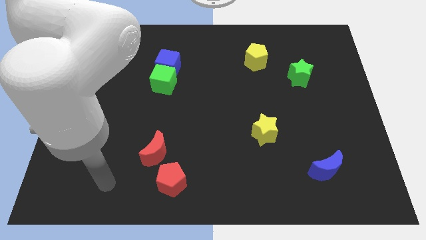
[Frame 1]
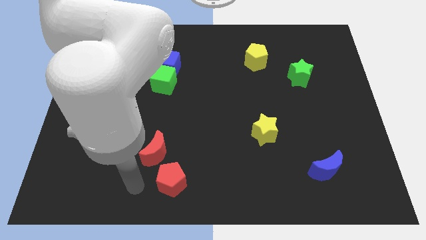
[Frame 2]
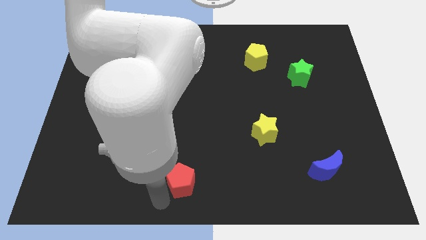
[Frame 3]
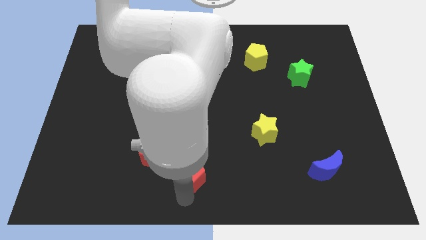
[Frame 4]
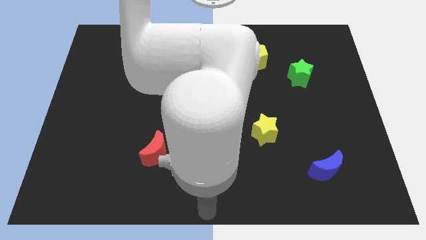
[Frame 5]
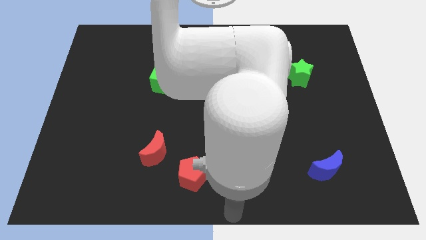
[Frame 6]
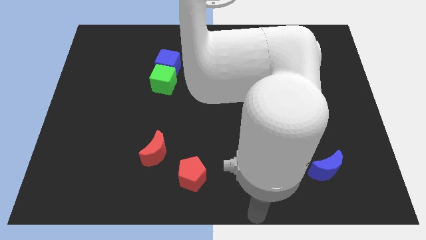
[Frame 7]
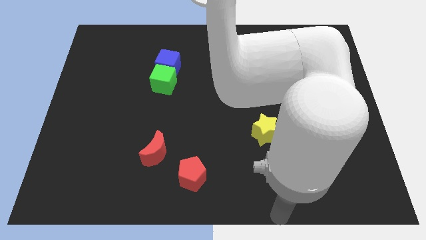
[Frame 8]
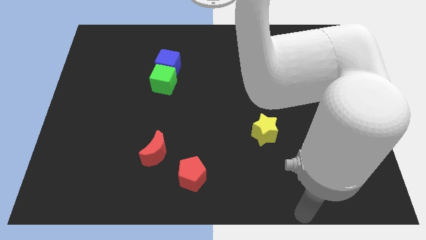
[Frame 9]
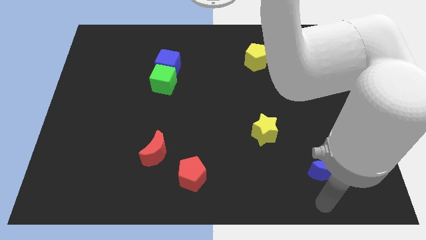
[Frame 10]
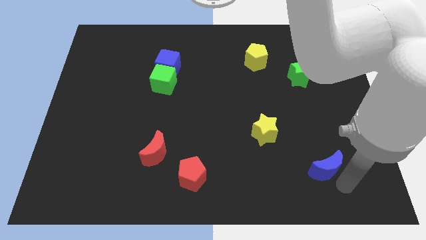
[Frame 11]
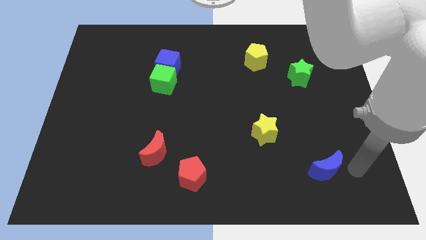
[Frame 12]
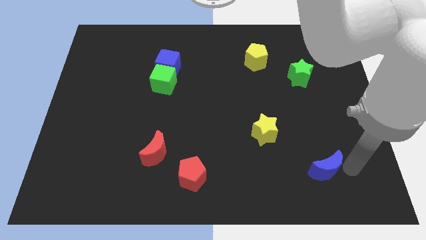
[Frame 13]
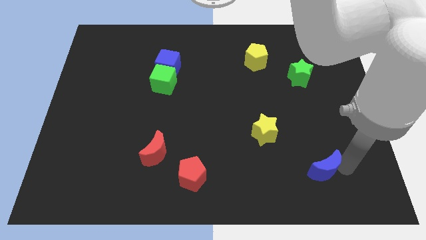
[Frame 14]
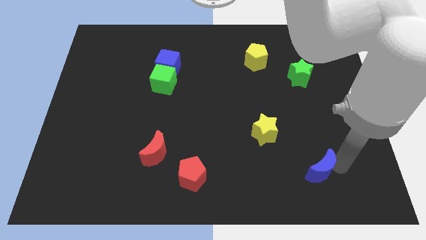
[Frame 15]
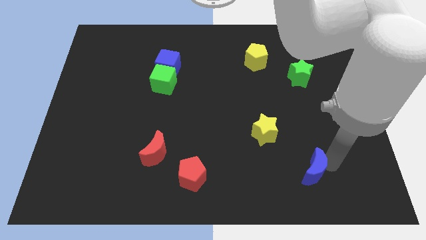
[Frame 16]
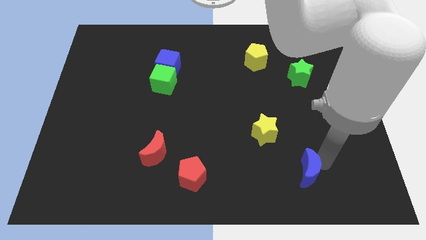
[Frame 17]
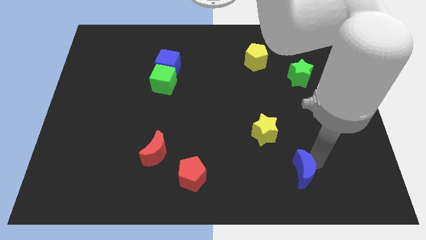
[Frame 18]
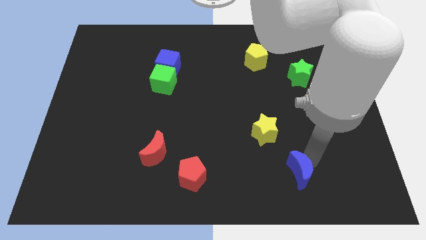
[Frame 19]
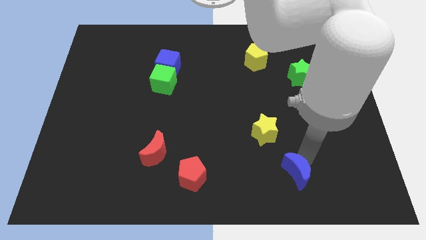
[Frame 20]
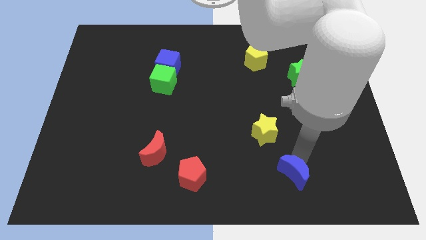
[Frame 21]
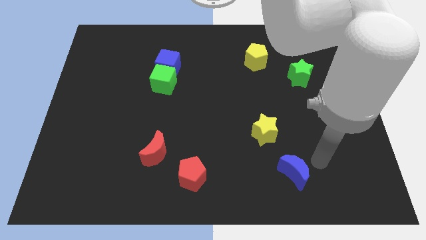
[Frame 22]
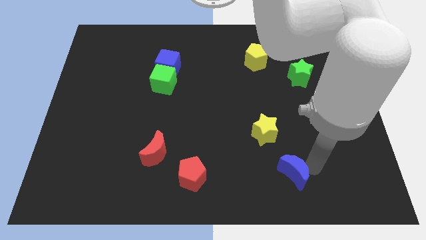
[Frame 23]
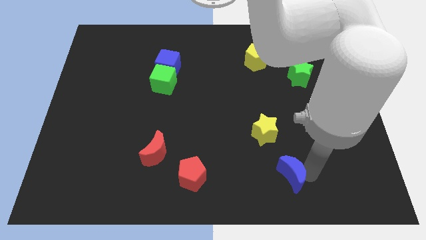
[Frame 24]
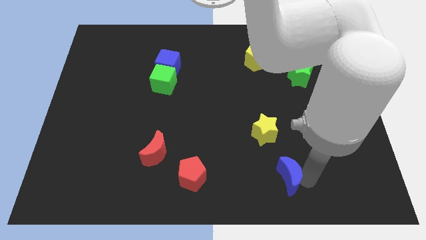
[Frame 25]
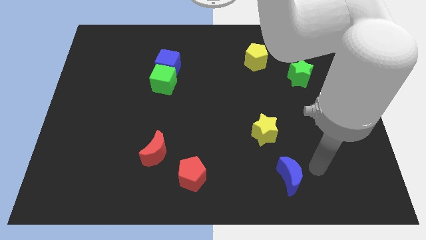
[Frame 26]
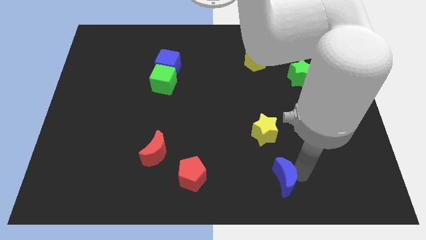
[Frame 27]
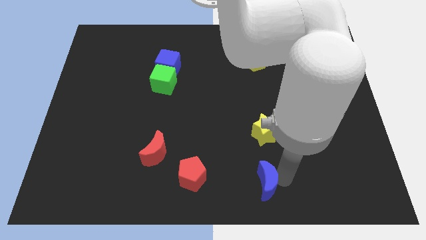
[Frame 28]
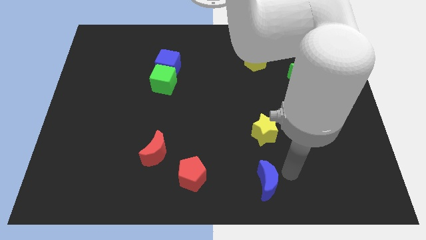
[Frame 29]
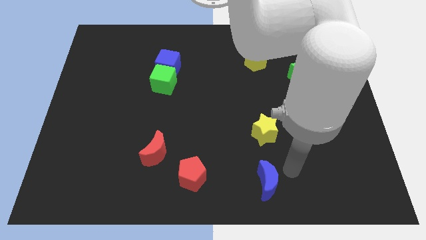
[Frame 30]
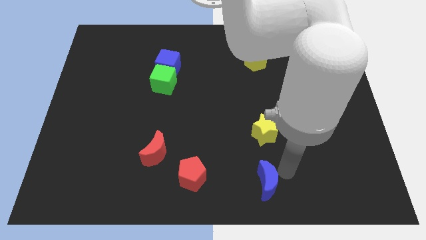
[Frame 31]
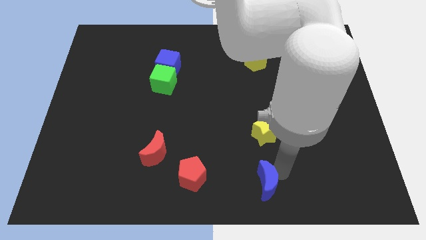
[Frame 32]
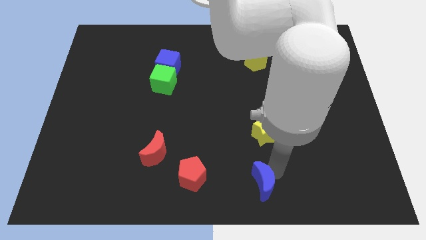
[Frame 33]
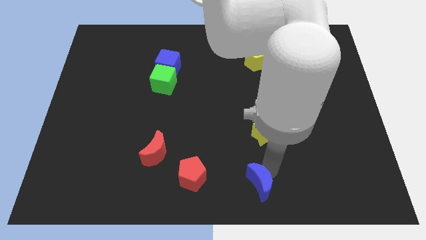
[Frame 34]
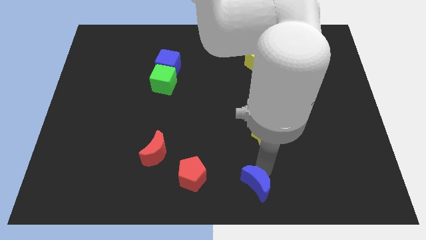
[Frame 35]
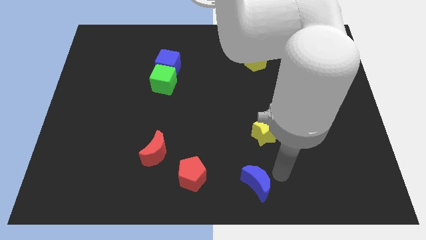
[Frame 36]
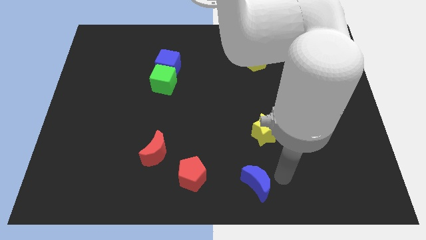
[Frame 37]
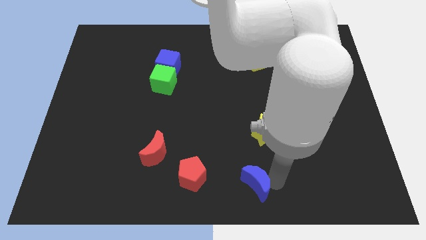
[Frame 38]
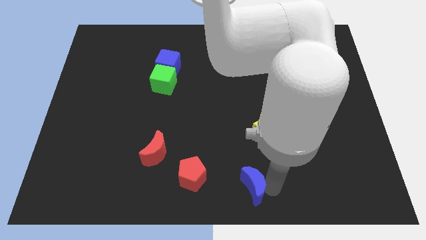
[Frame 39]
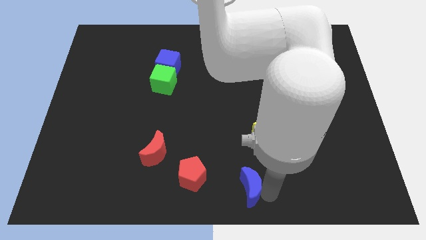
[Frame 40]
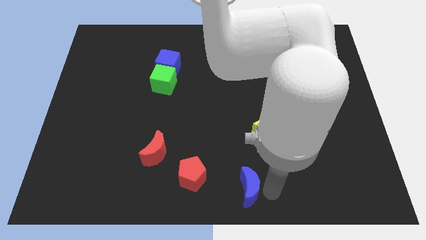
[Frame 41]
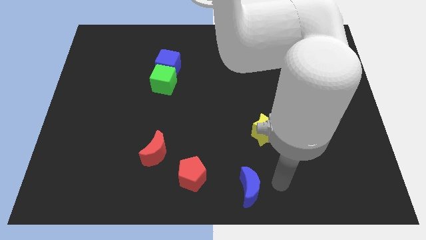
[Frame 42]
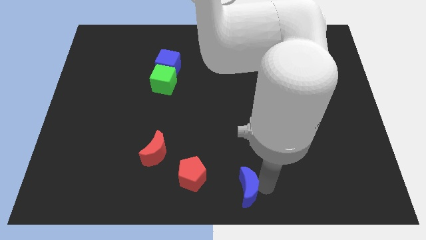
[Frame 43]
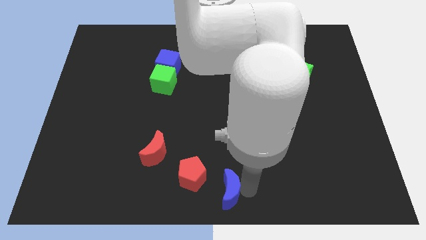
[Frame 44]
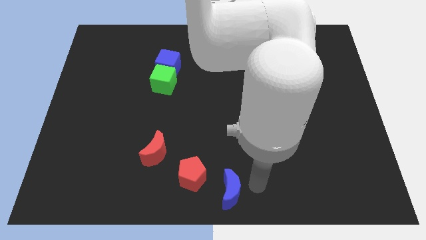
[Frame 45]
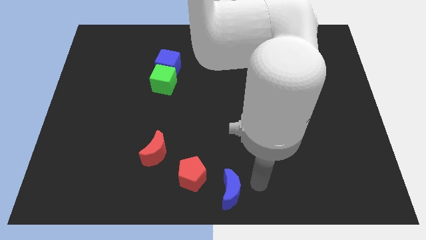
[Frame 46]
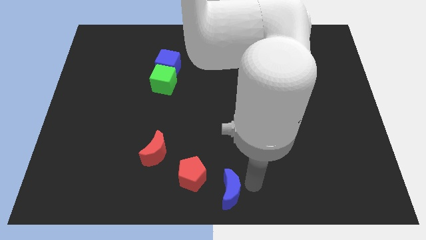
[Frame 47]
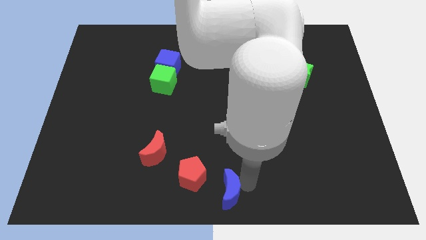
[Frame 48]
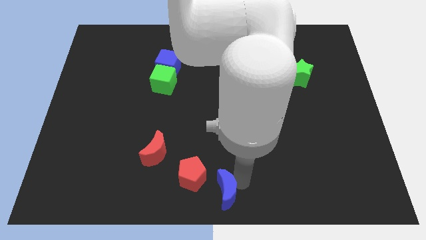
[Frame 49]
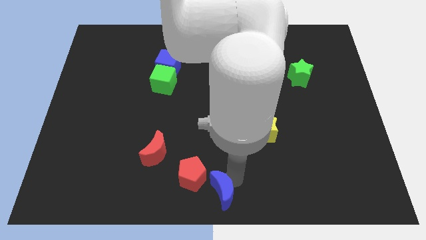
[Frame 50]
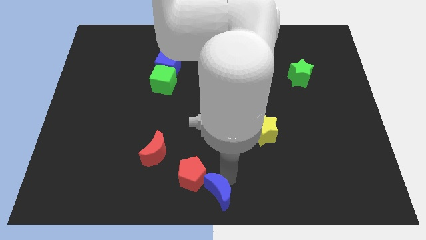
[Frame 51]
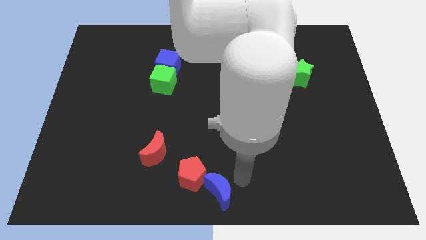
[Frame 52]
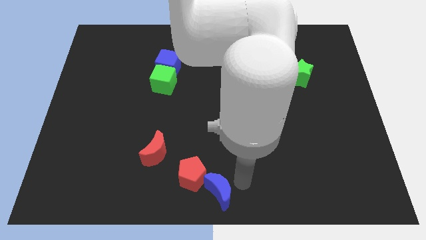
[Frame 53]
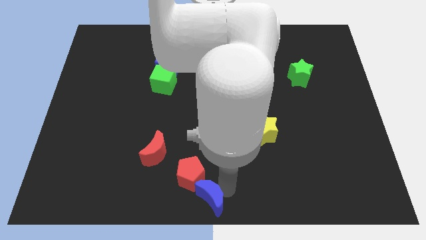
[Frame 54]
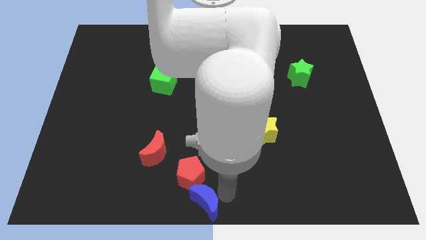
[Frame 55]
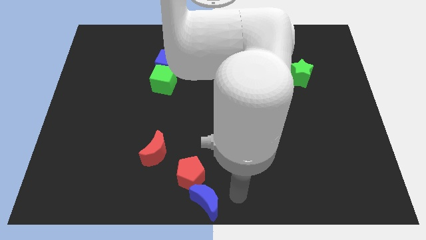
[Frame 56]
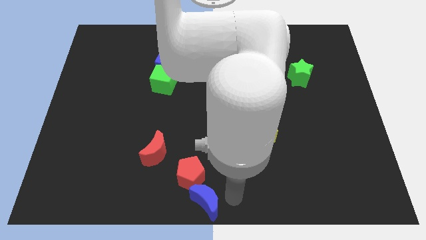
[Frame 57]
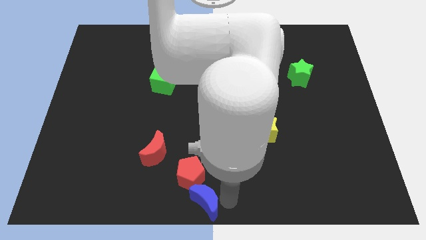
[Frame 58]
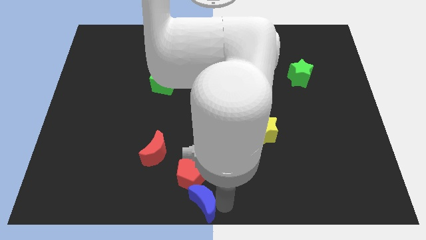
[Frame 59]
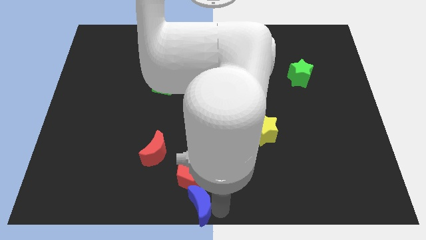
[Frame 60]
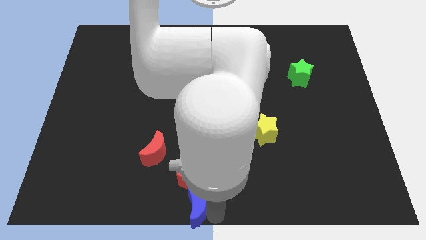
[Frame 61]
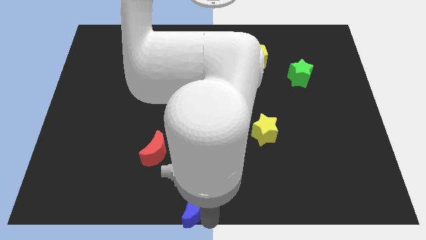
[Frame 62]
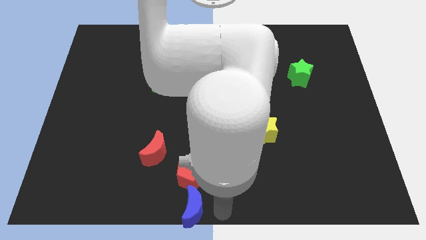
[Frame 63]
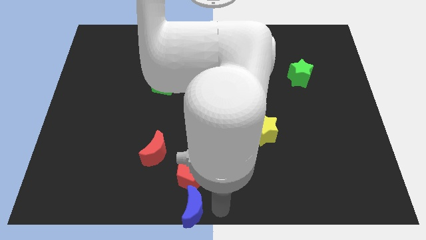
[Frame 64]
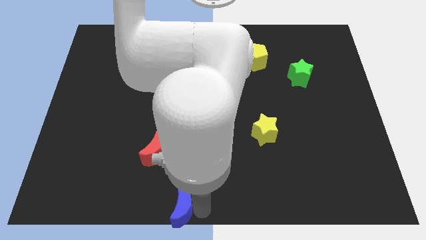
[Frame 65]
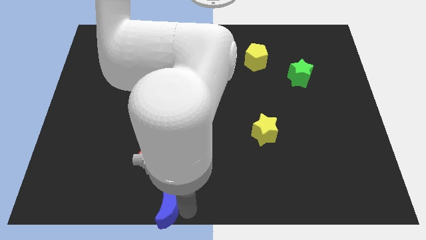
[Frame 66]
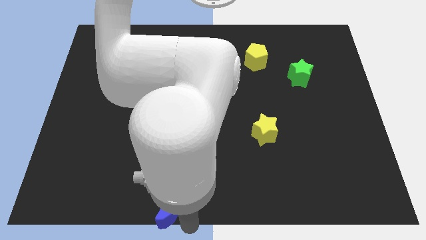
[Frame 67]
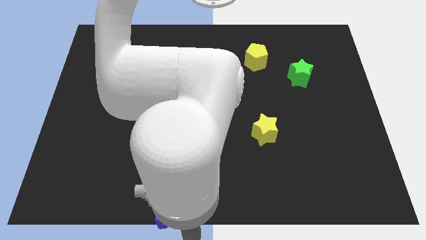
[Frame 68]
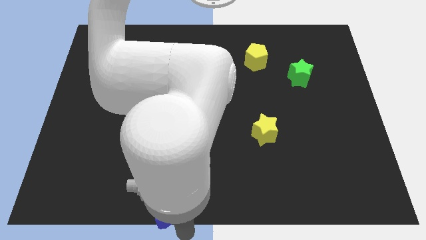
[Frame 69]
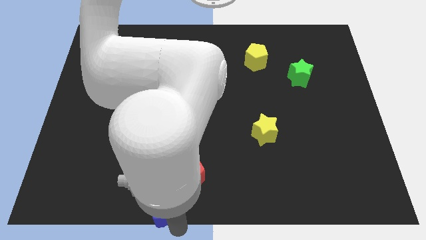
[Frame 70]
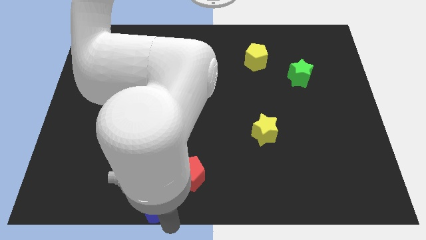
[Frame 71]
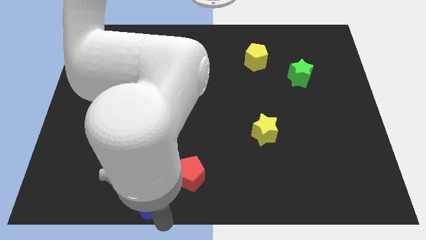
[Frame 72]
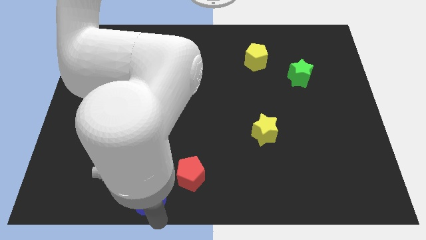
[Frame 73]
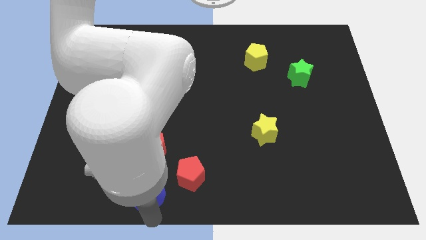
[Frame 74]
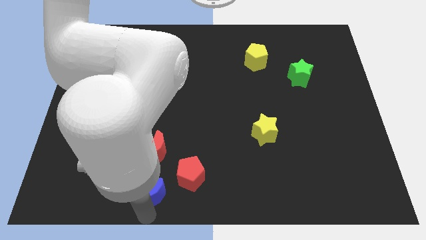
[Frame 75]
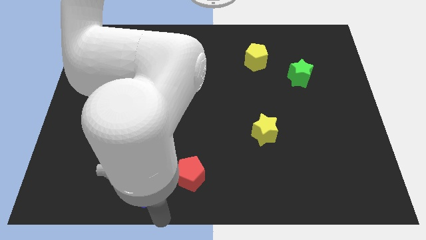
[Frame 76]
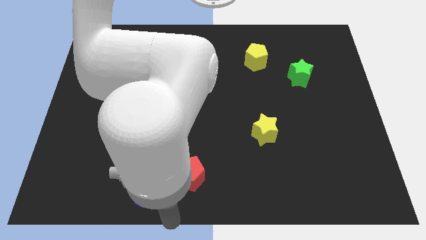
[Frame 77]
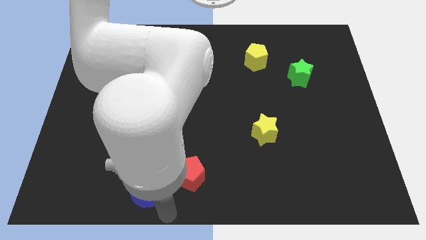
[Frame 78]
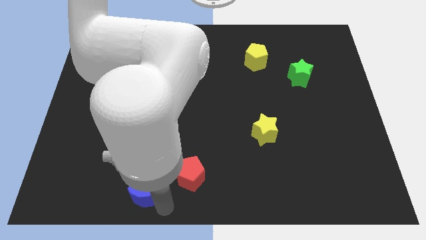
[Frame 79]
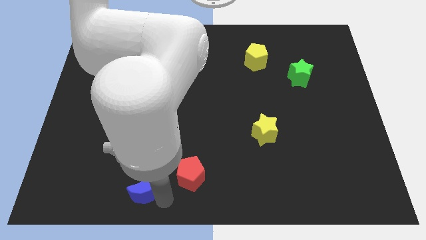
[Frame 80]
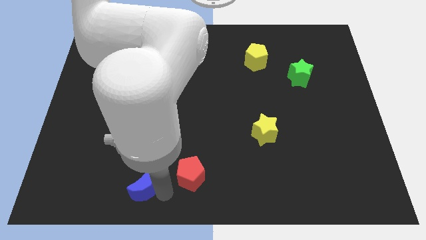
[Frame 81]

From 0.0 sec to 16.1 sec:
put the blue moon to the bottom left side of the red moon
